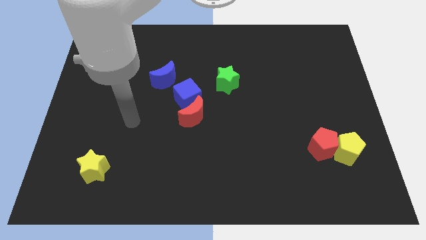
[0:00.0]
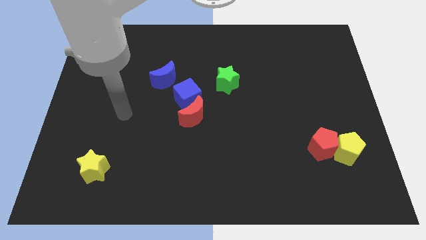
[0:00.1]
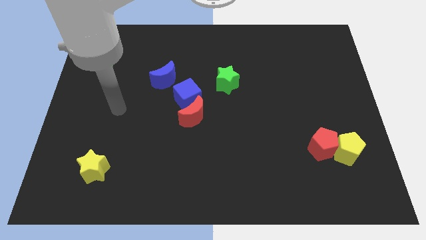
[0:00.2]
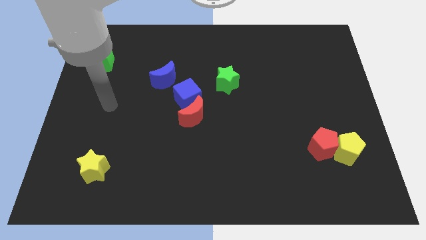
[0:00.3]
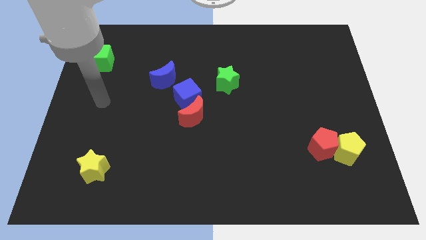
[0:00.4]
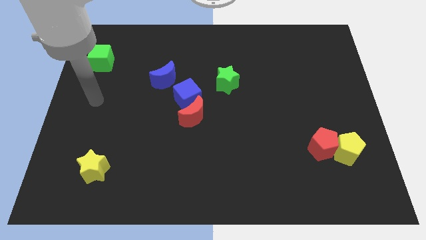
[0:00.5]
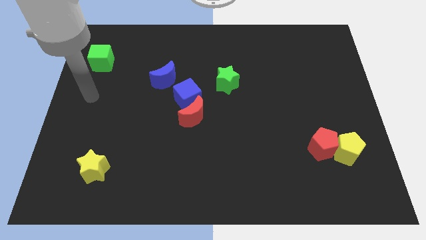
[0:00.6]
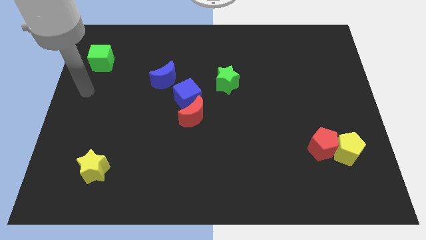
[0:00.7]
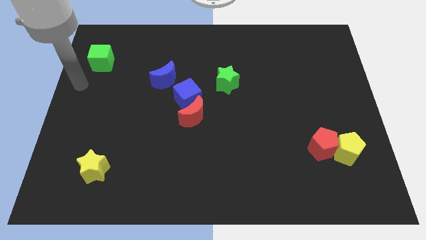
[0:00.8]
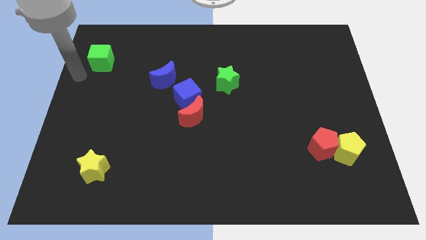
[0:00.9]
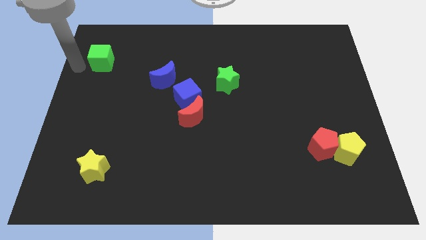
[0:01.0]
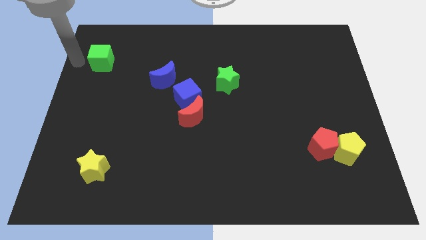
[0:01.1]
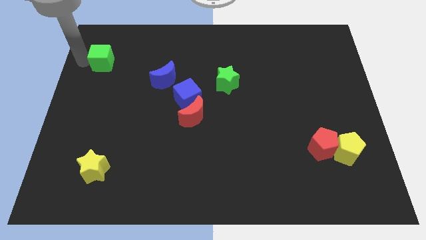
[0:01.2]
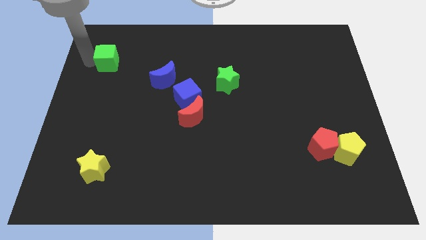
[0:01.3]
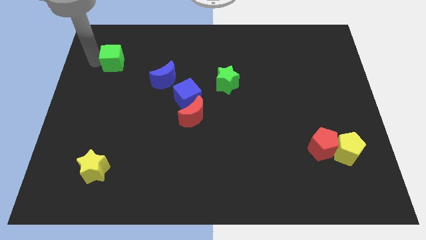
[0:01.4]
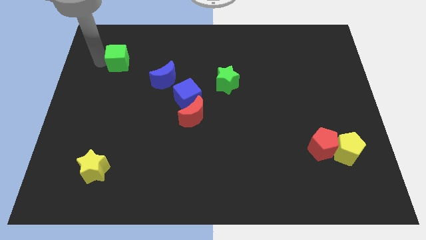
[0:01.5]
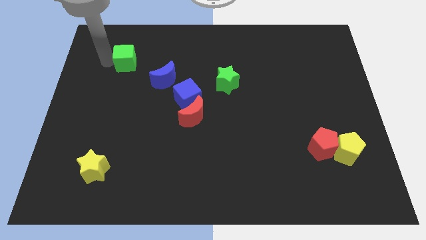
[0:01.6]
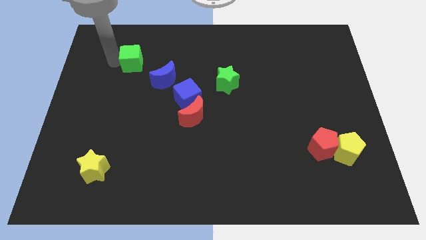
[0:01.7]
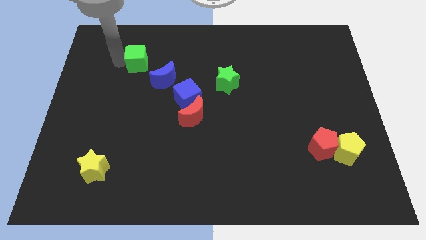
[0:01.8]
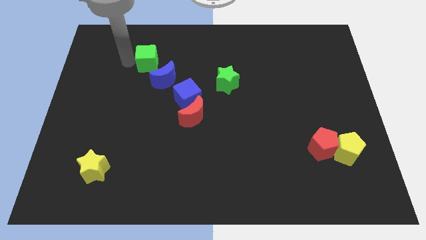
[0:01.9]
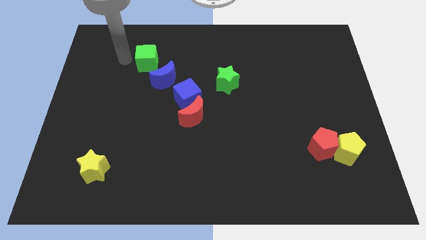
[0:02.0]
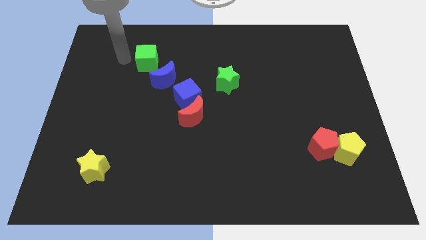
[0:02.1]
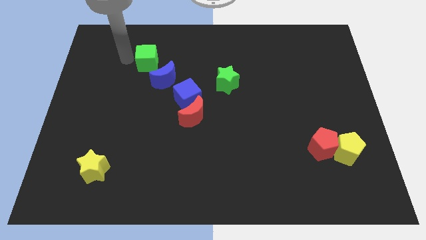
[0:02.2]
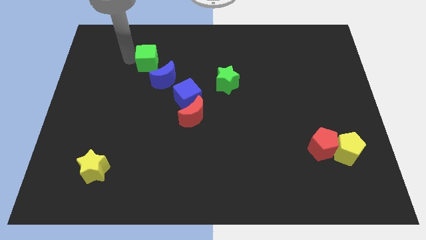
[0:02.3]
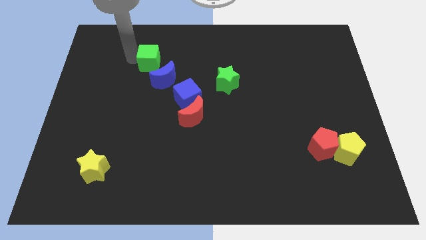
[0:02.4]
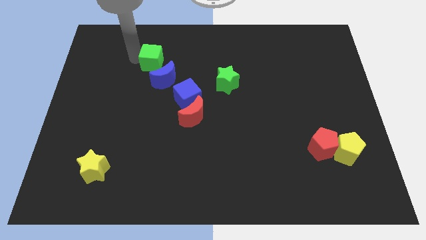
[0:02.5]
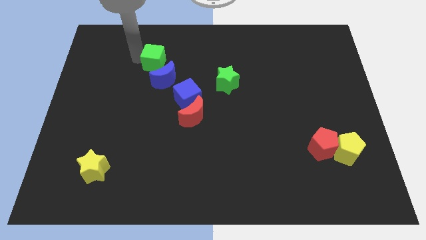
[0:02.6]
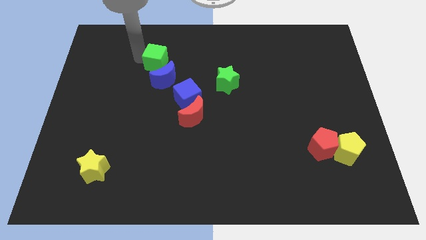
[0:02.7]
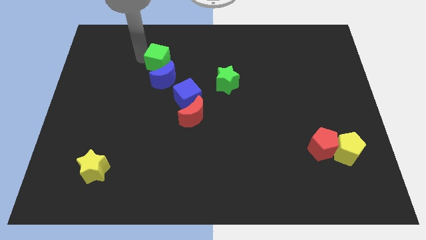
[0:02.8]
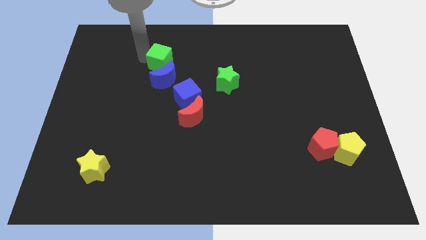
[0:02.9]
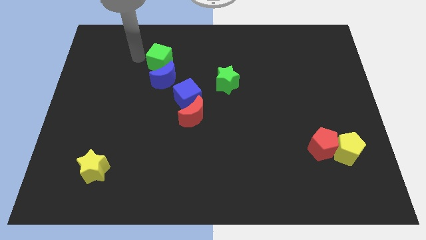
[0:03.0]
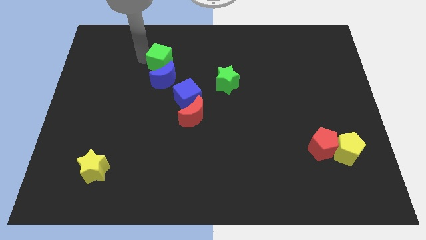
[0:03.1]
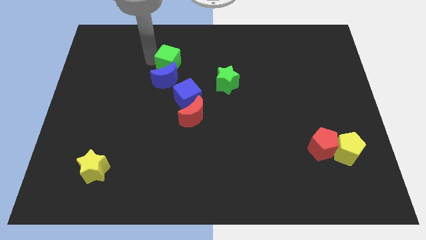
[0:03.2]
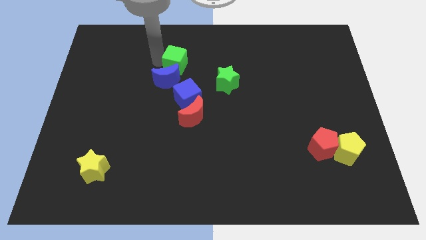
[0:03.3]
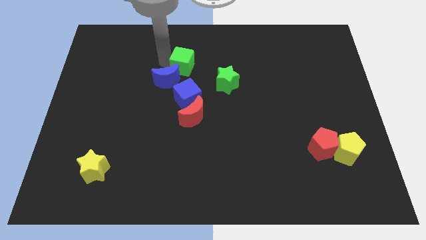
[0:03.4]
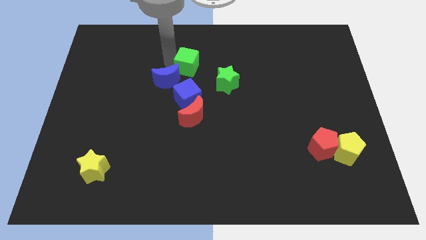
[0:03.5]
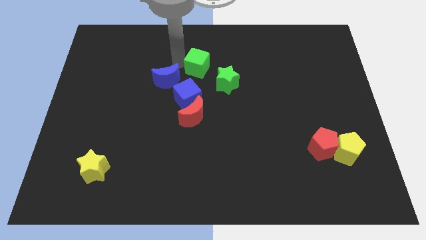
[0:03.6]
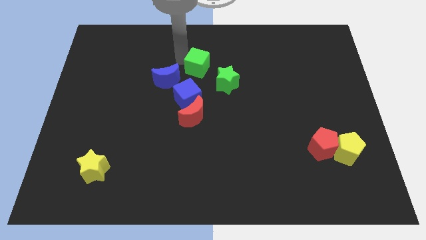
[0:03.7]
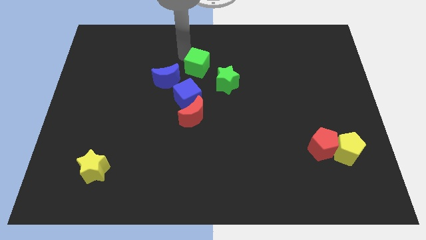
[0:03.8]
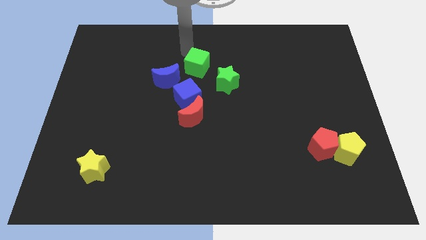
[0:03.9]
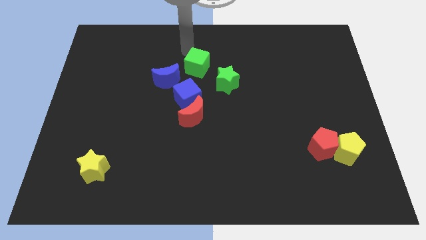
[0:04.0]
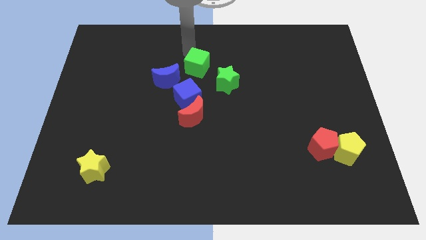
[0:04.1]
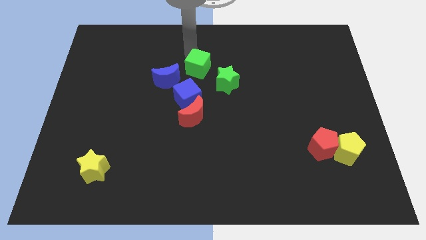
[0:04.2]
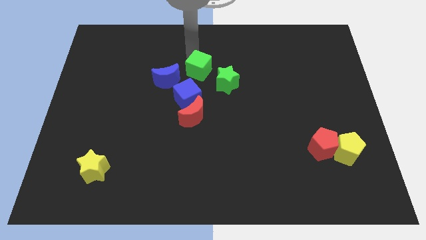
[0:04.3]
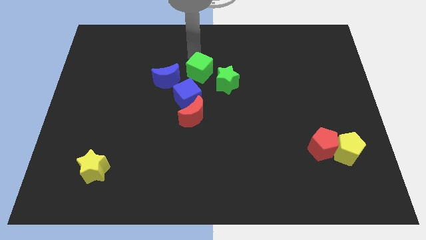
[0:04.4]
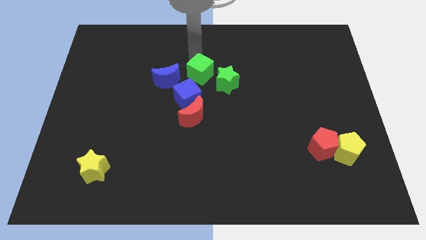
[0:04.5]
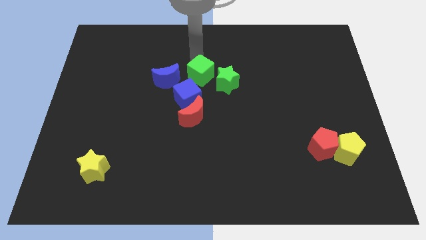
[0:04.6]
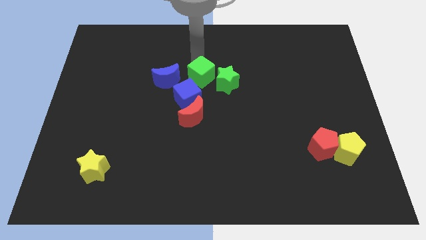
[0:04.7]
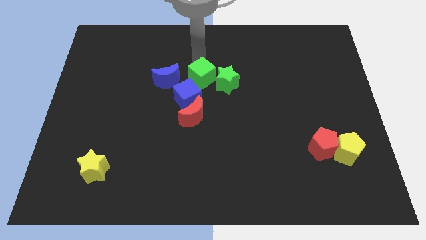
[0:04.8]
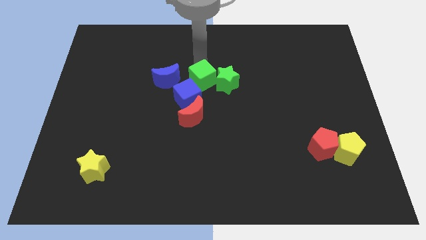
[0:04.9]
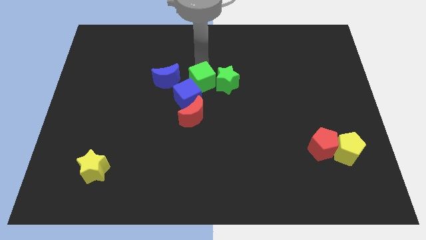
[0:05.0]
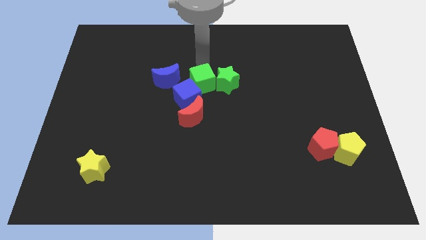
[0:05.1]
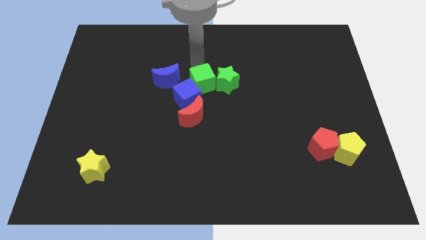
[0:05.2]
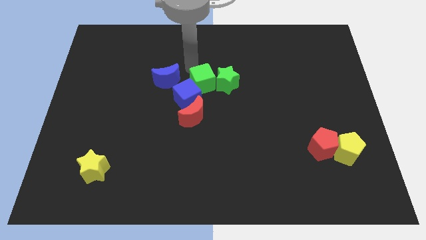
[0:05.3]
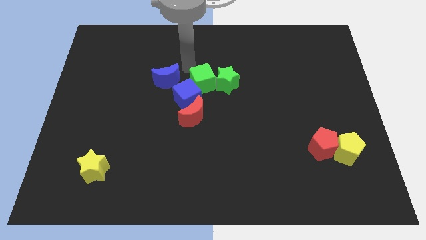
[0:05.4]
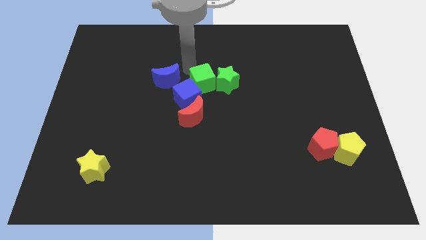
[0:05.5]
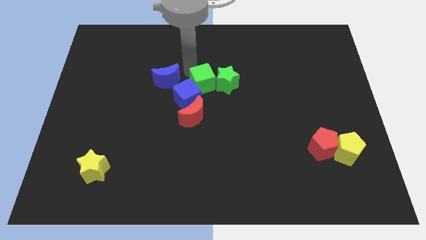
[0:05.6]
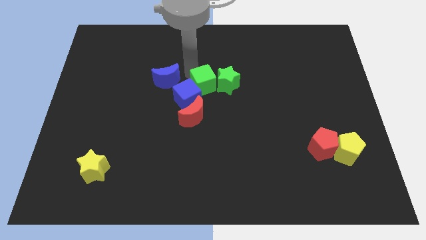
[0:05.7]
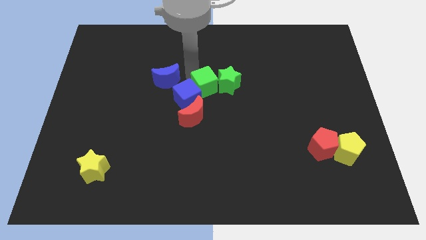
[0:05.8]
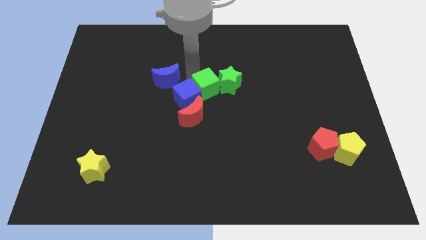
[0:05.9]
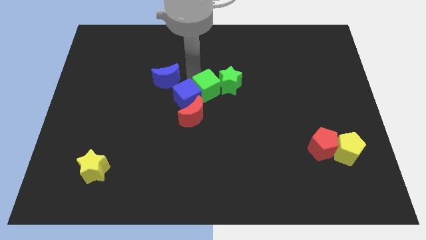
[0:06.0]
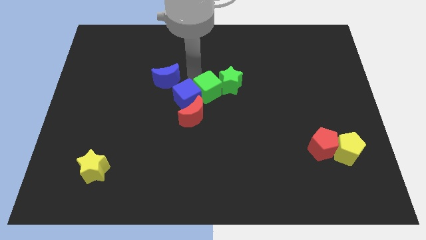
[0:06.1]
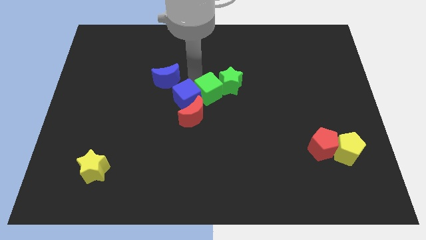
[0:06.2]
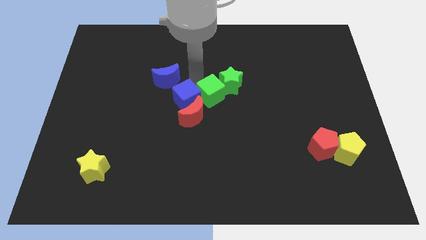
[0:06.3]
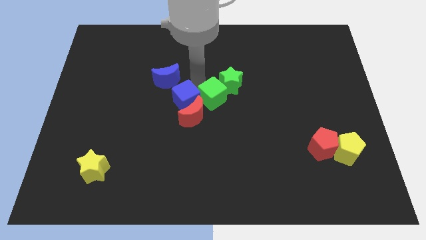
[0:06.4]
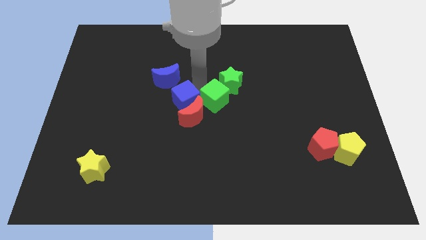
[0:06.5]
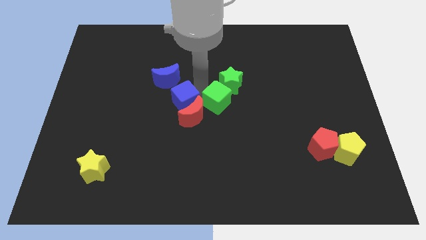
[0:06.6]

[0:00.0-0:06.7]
move the green cube right of the red moon
